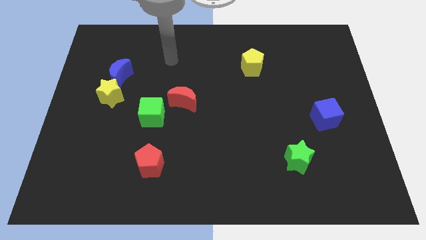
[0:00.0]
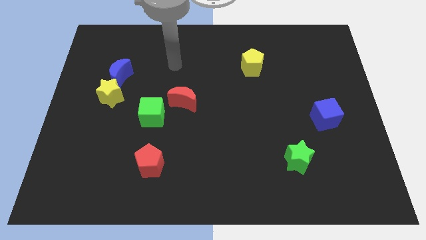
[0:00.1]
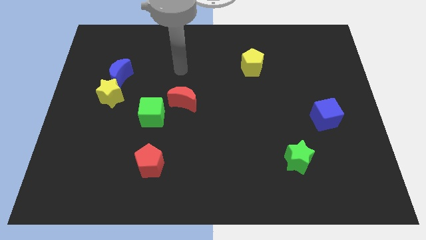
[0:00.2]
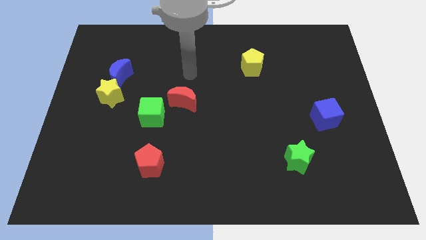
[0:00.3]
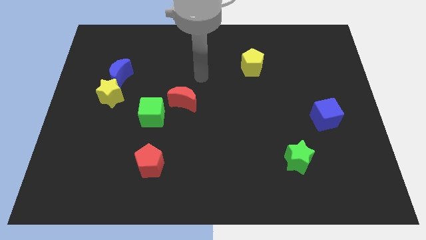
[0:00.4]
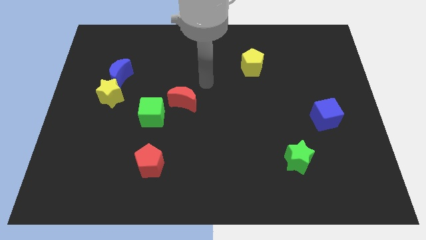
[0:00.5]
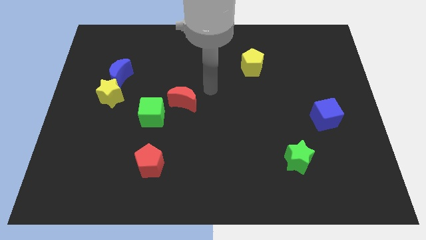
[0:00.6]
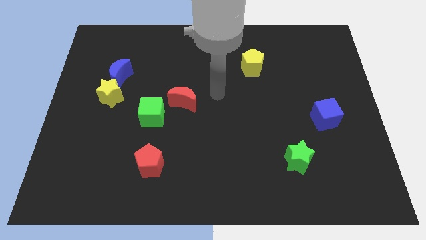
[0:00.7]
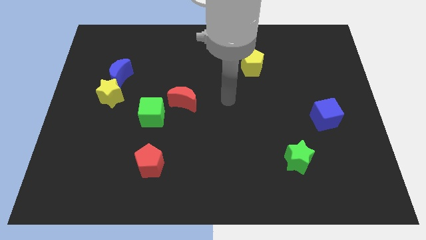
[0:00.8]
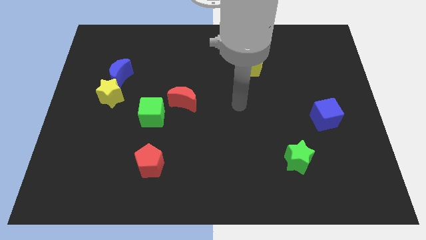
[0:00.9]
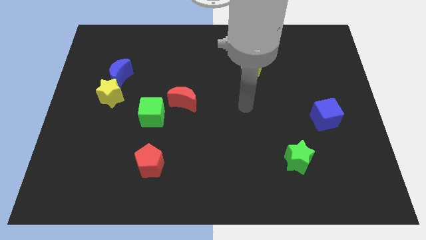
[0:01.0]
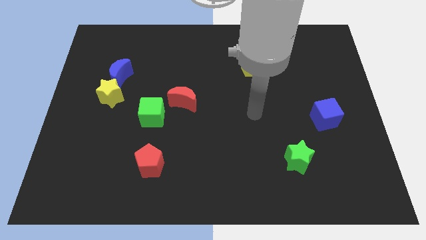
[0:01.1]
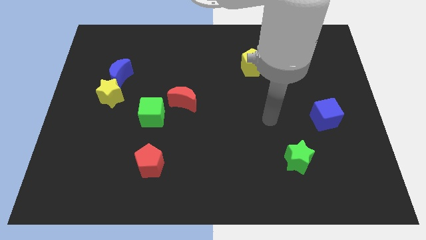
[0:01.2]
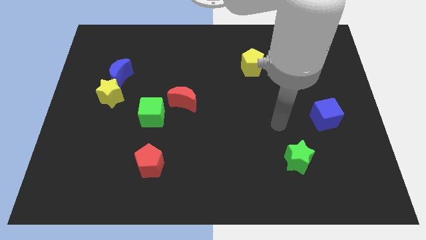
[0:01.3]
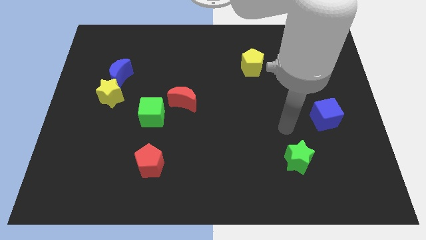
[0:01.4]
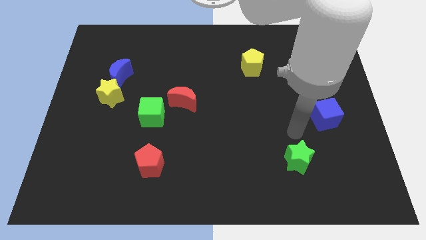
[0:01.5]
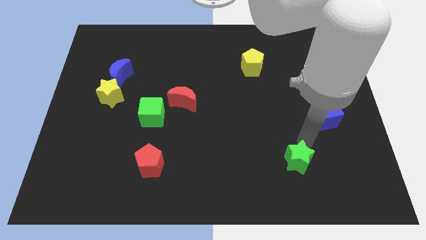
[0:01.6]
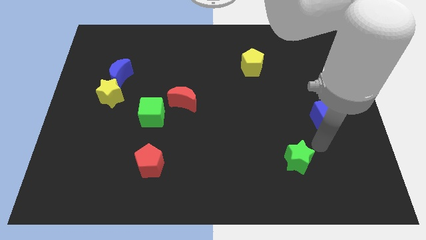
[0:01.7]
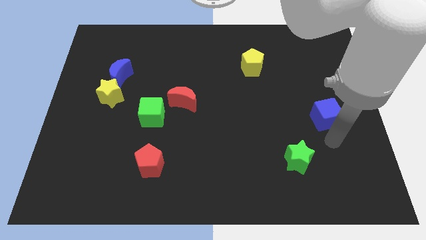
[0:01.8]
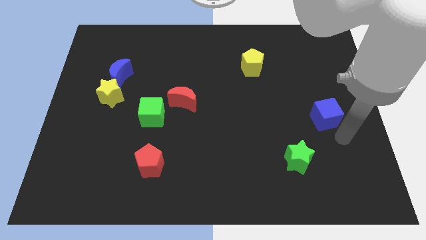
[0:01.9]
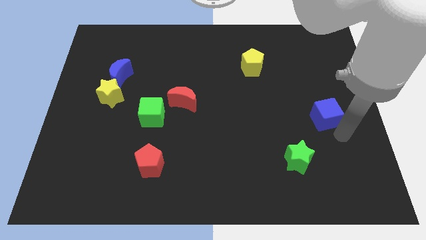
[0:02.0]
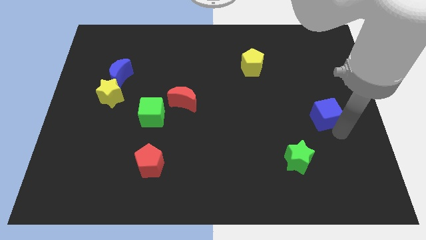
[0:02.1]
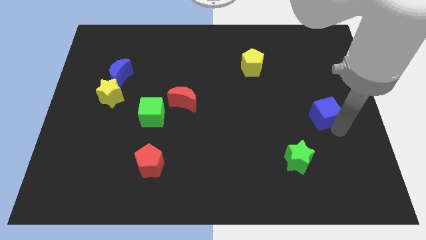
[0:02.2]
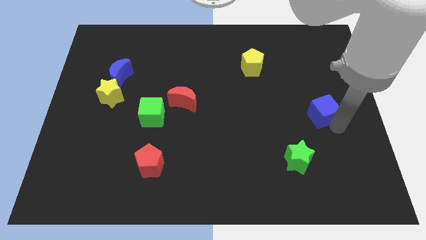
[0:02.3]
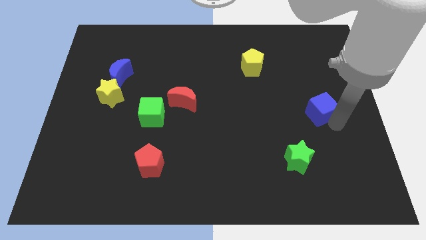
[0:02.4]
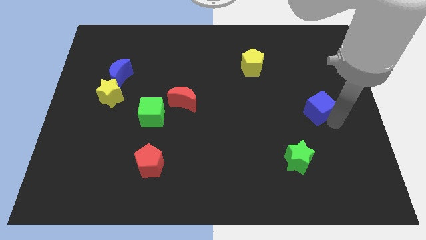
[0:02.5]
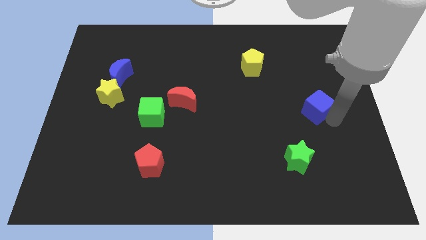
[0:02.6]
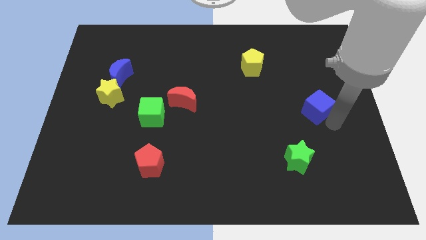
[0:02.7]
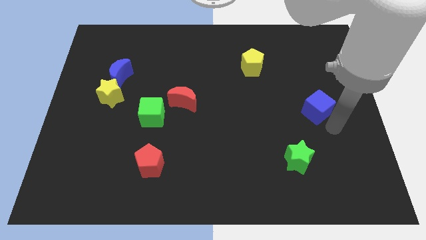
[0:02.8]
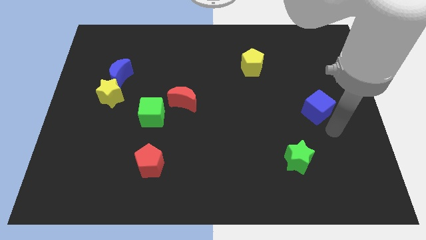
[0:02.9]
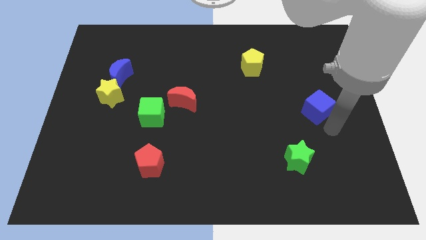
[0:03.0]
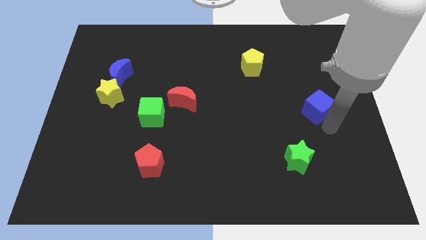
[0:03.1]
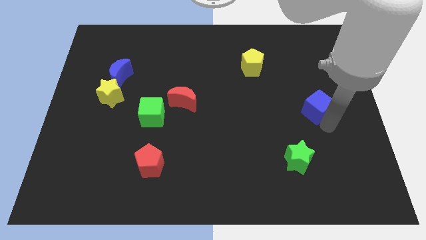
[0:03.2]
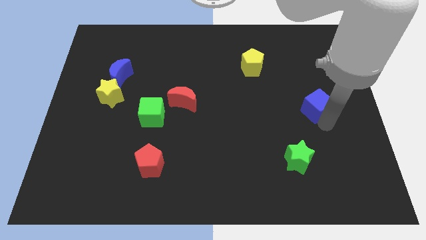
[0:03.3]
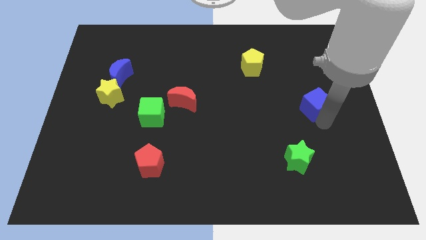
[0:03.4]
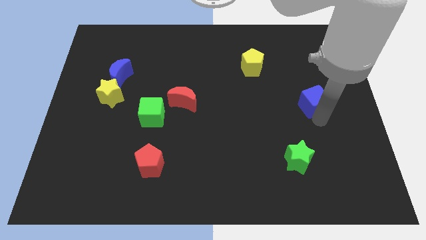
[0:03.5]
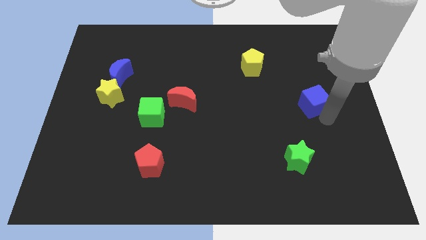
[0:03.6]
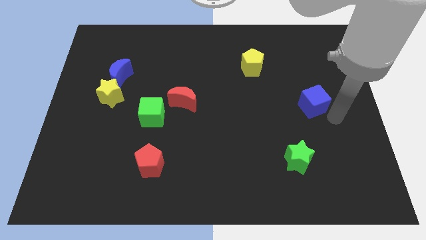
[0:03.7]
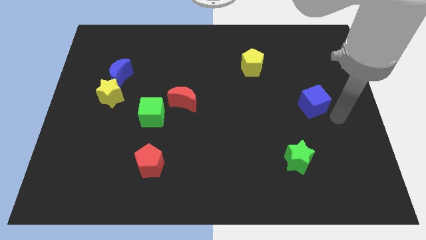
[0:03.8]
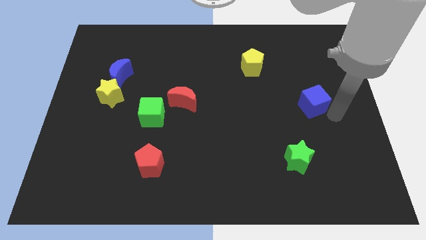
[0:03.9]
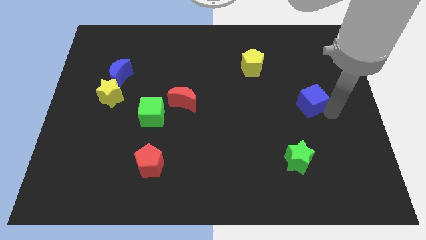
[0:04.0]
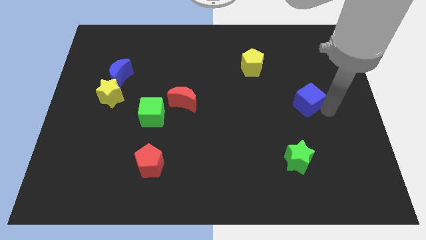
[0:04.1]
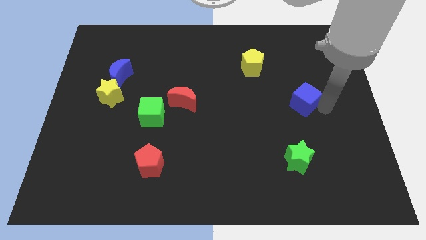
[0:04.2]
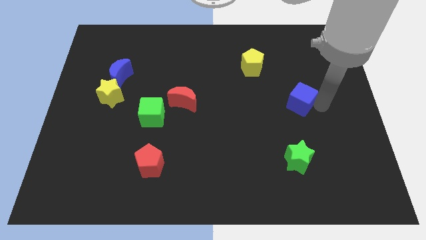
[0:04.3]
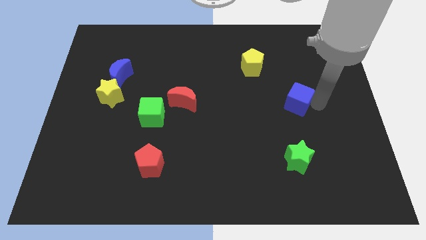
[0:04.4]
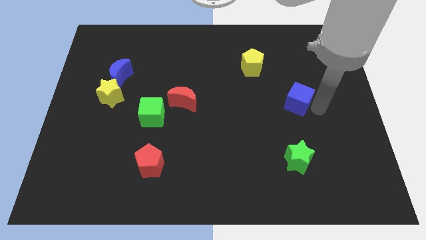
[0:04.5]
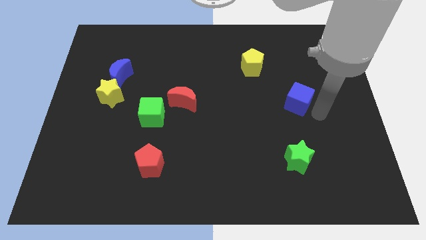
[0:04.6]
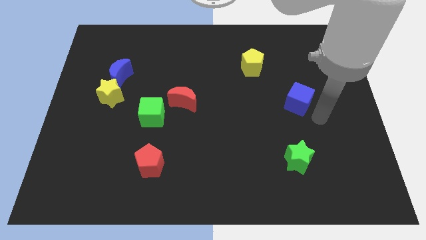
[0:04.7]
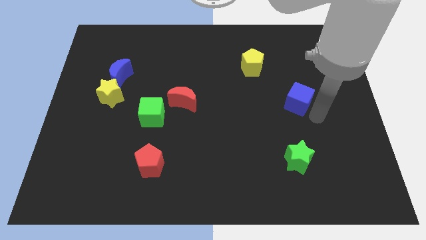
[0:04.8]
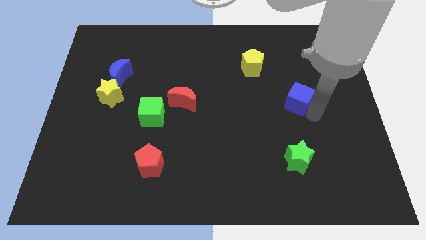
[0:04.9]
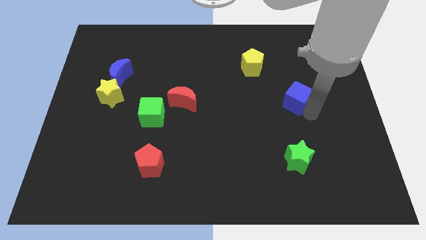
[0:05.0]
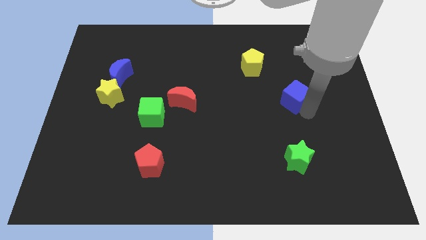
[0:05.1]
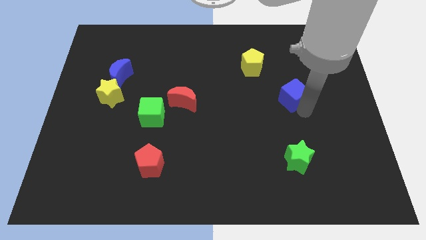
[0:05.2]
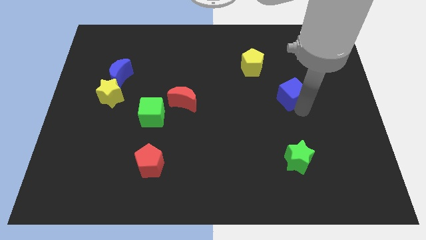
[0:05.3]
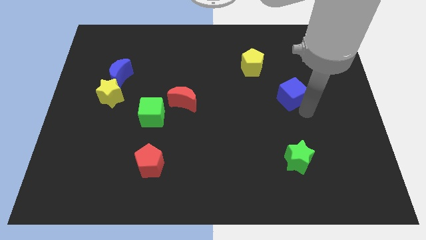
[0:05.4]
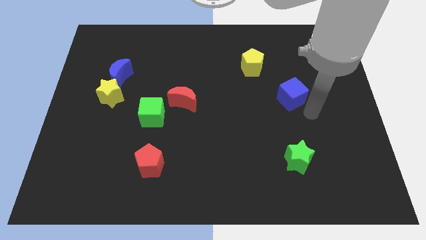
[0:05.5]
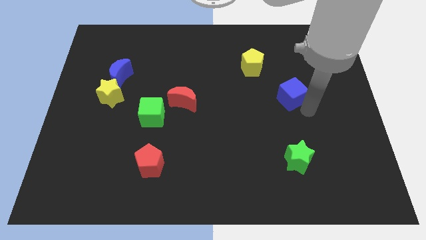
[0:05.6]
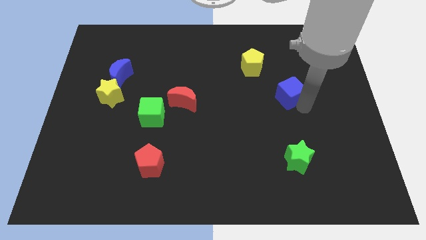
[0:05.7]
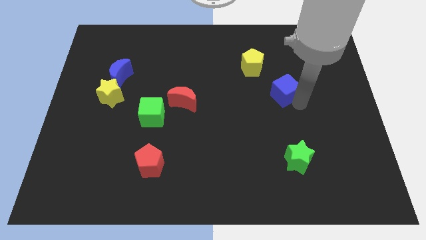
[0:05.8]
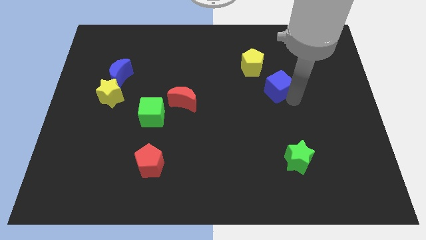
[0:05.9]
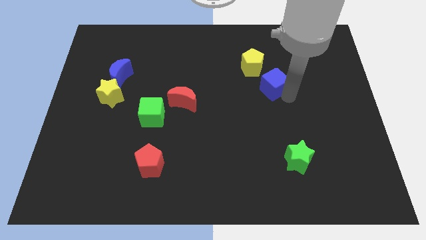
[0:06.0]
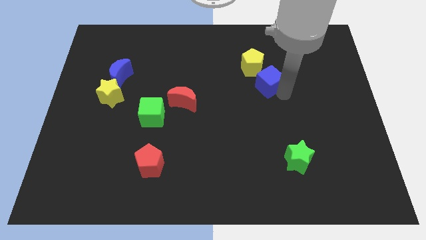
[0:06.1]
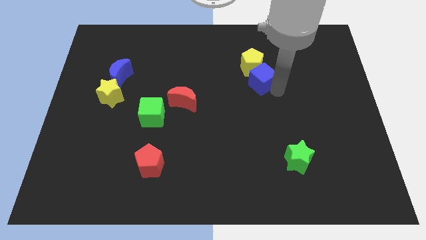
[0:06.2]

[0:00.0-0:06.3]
put the blue cube to the yellow pentagon

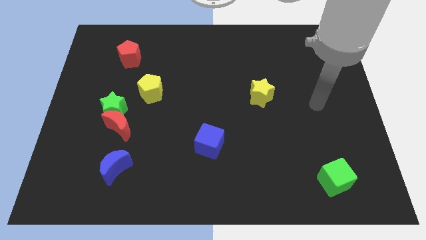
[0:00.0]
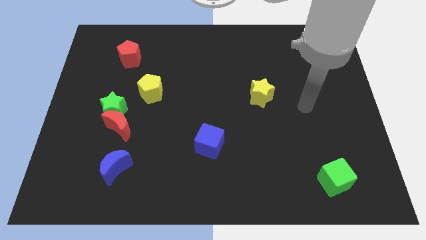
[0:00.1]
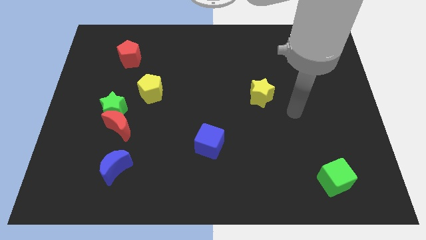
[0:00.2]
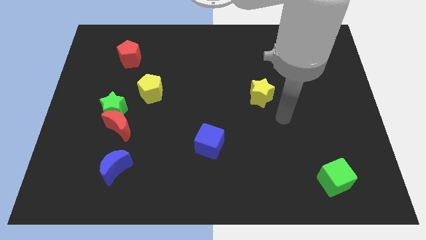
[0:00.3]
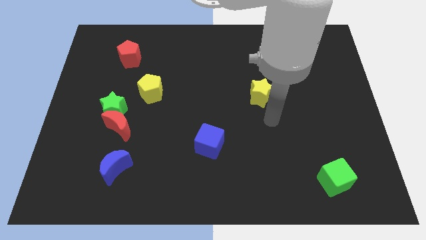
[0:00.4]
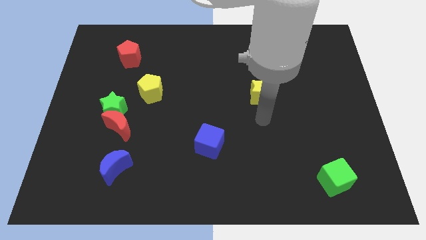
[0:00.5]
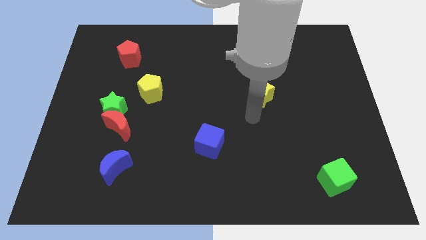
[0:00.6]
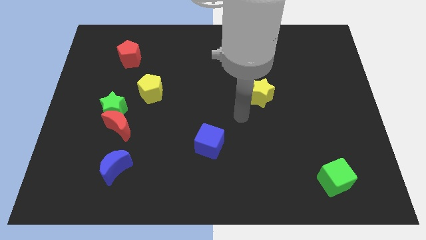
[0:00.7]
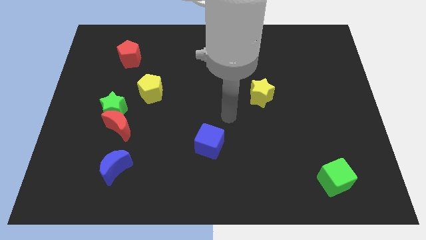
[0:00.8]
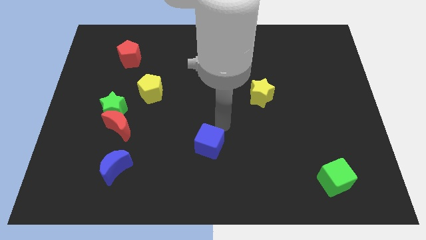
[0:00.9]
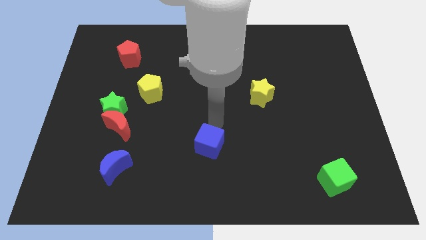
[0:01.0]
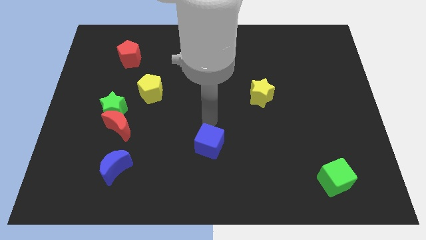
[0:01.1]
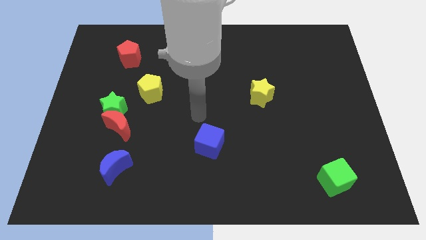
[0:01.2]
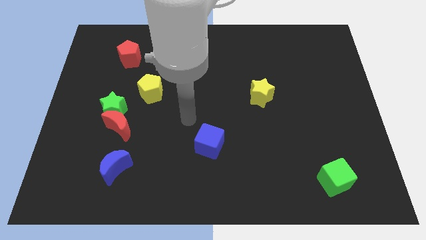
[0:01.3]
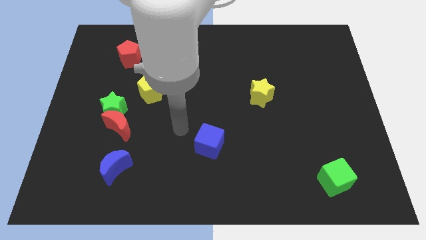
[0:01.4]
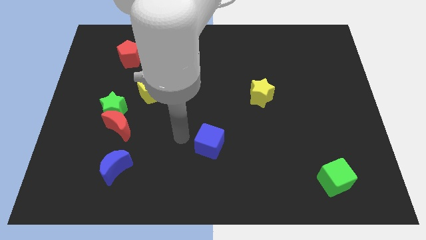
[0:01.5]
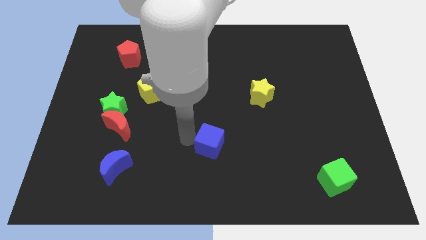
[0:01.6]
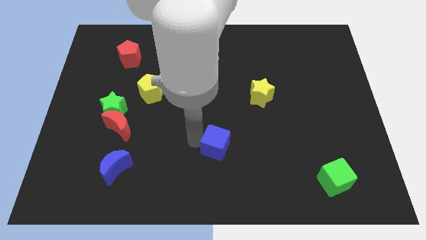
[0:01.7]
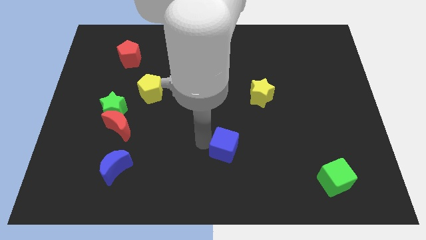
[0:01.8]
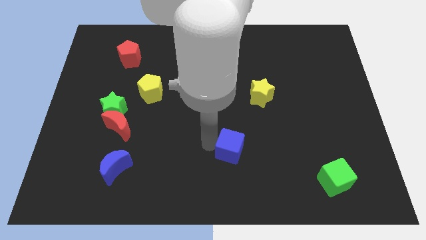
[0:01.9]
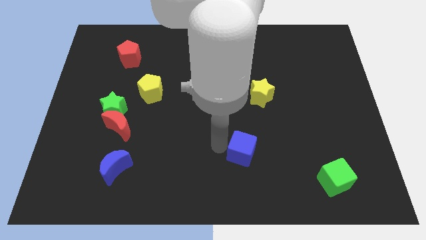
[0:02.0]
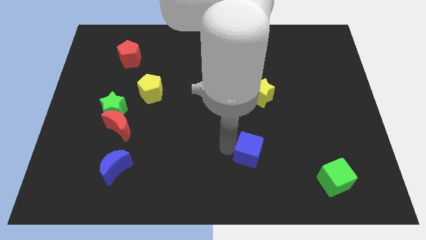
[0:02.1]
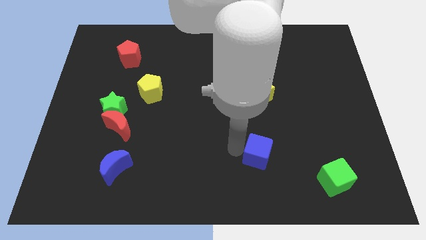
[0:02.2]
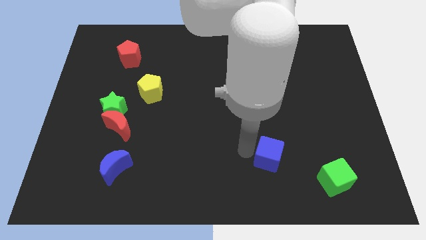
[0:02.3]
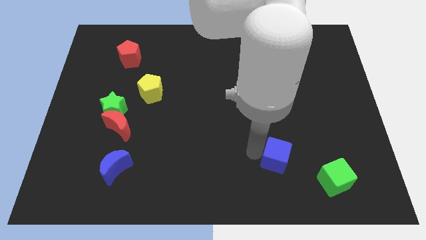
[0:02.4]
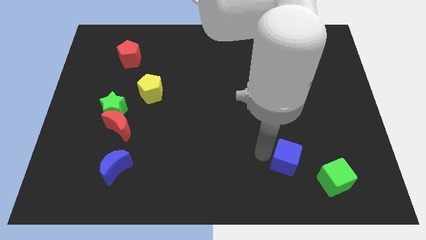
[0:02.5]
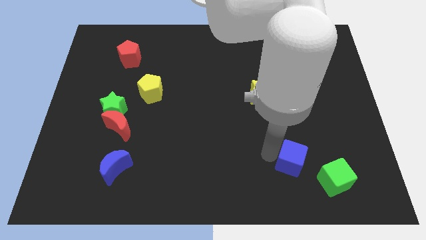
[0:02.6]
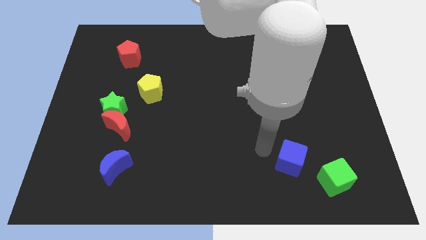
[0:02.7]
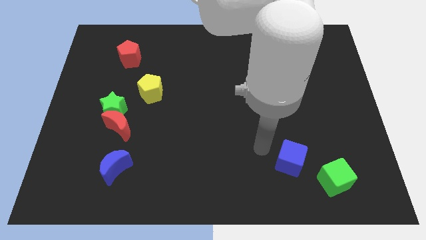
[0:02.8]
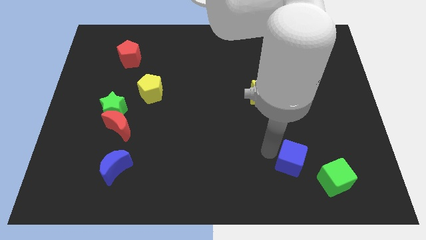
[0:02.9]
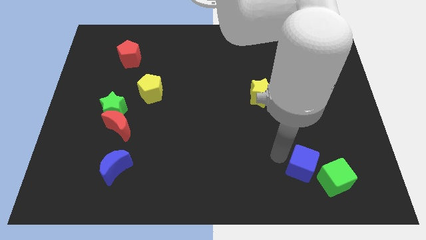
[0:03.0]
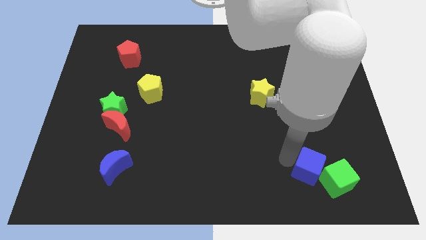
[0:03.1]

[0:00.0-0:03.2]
put the blue cube to the green cube
